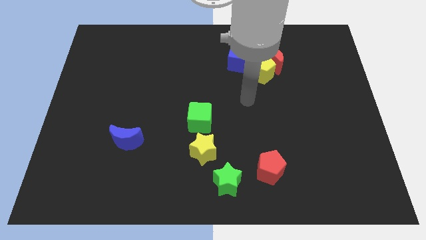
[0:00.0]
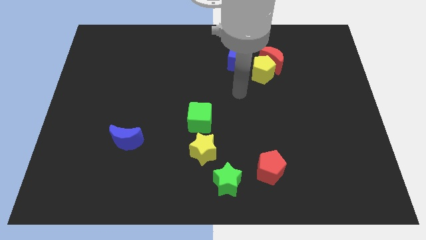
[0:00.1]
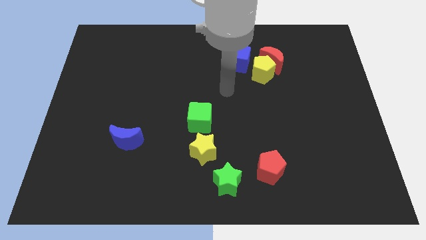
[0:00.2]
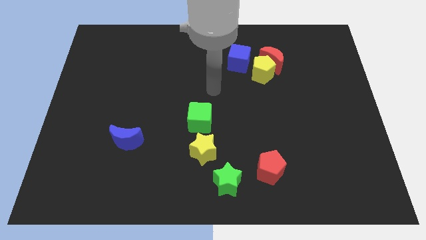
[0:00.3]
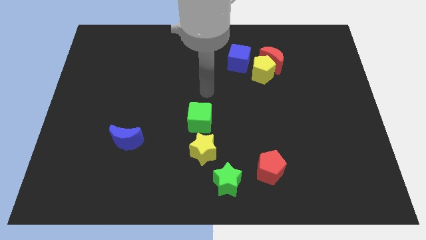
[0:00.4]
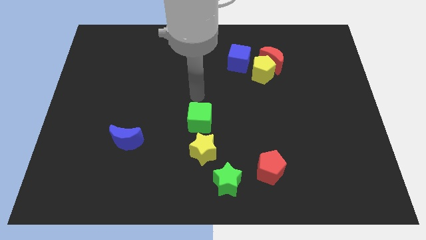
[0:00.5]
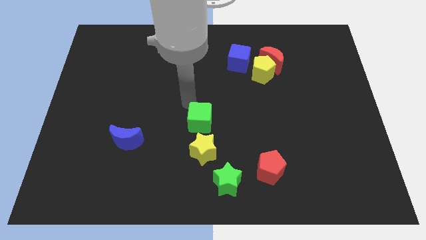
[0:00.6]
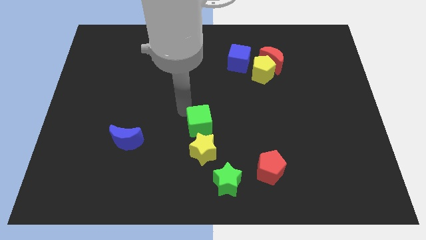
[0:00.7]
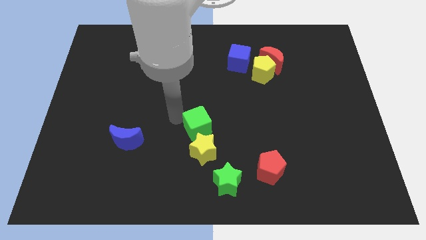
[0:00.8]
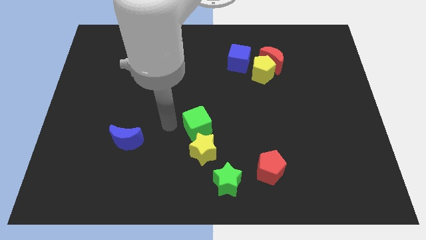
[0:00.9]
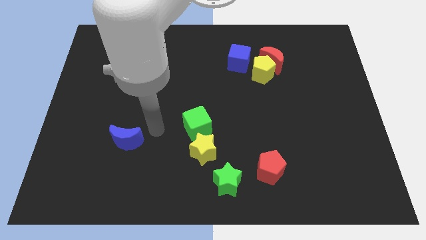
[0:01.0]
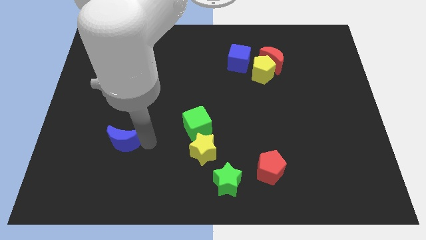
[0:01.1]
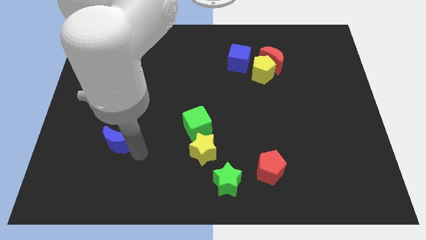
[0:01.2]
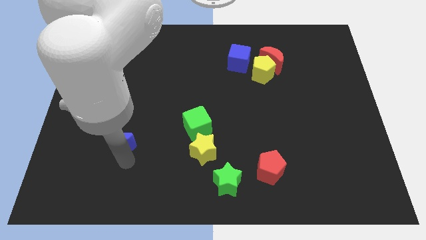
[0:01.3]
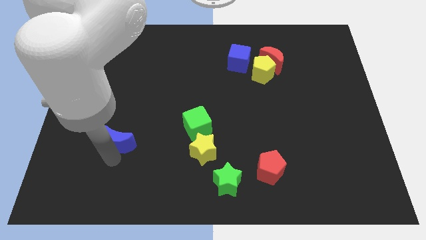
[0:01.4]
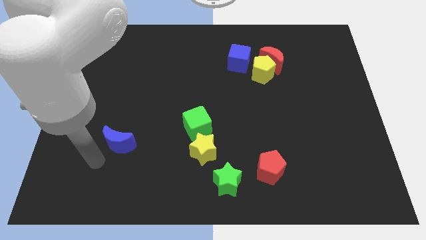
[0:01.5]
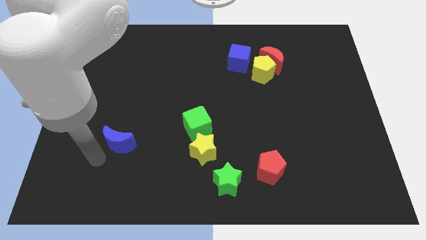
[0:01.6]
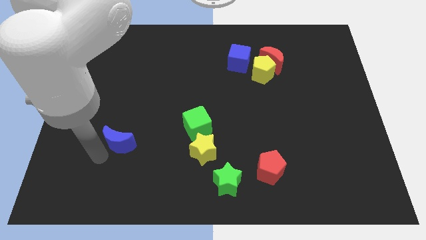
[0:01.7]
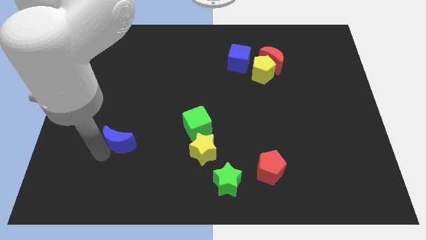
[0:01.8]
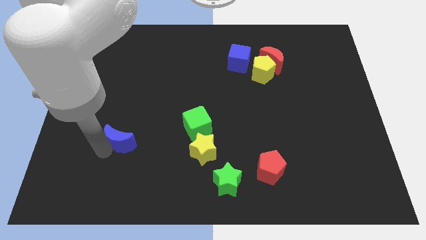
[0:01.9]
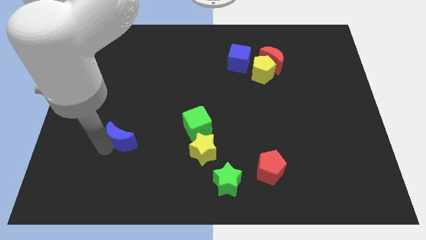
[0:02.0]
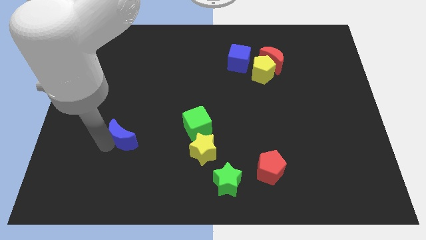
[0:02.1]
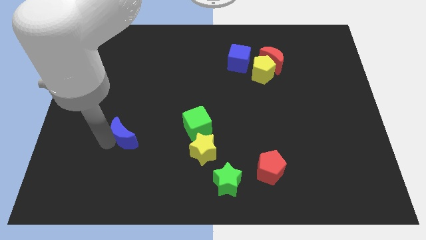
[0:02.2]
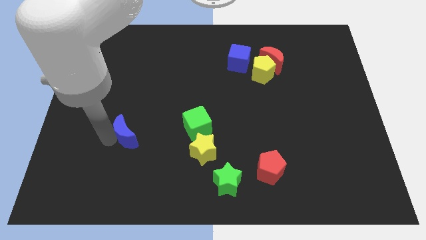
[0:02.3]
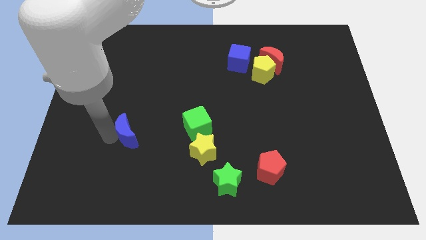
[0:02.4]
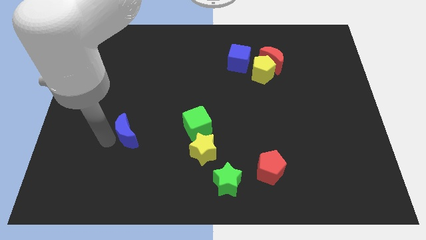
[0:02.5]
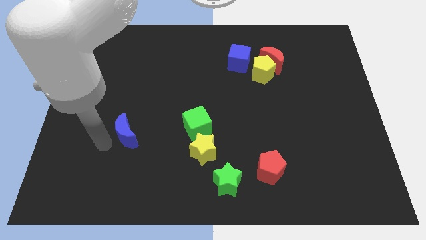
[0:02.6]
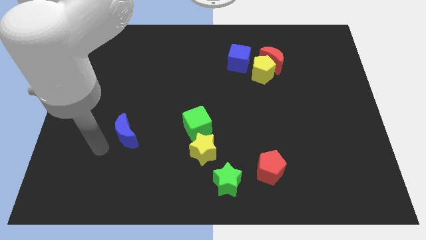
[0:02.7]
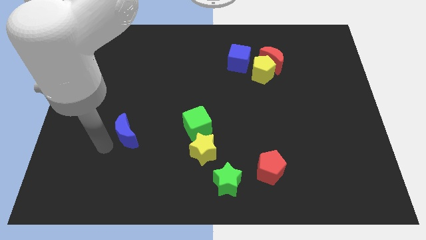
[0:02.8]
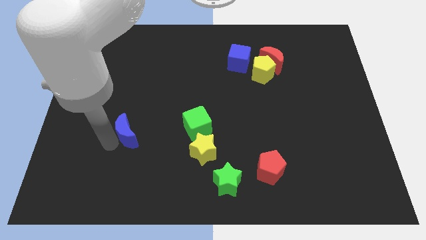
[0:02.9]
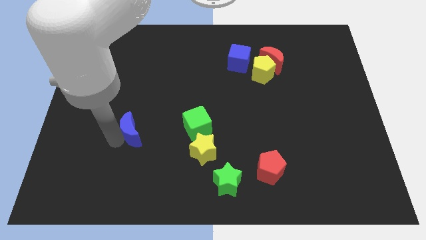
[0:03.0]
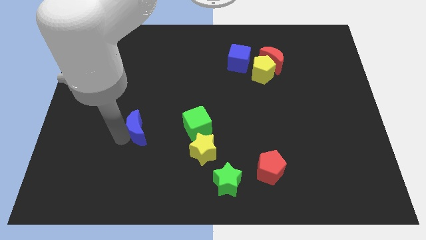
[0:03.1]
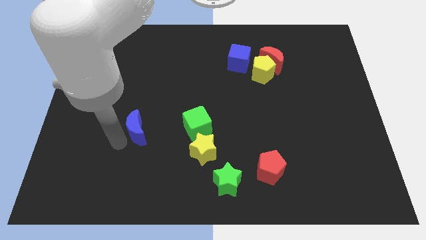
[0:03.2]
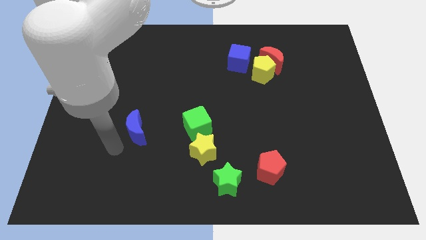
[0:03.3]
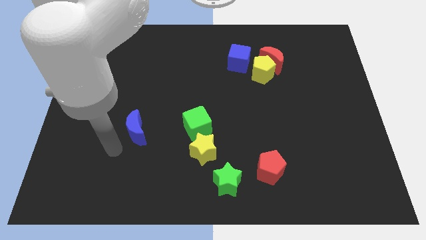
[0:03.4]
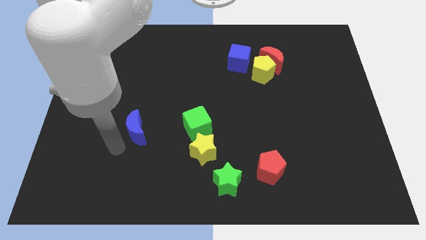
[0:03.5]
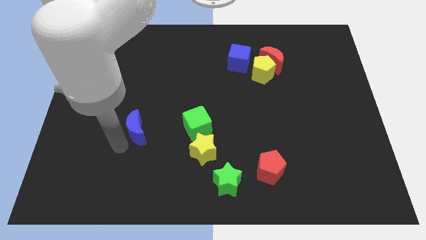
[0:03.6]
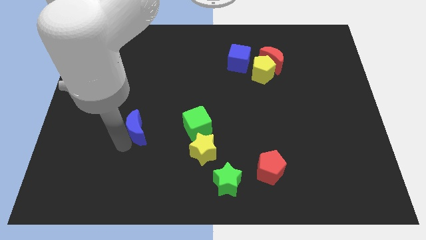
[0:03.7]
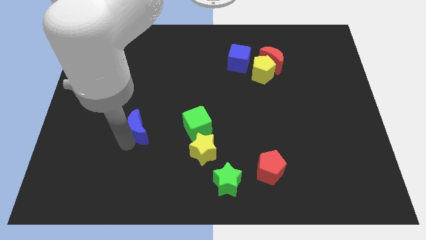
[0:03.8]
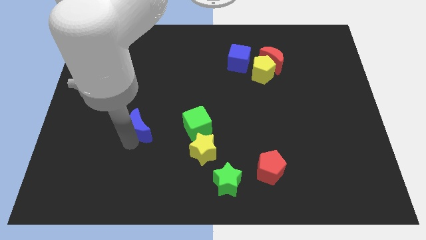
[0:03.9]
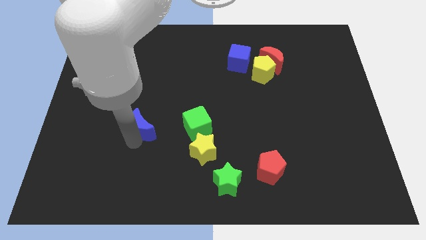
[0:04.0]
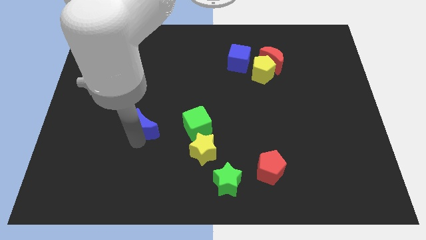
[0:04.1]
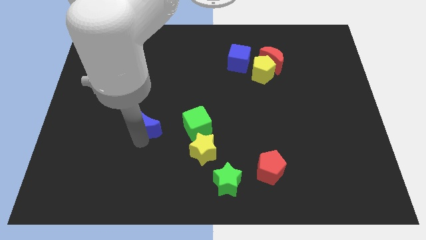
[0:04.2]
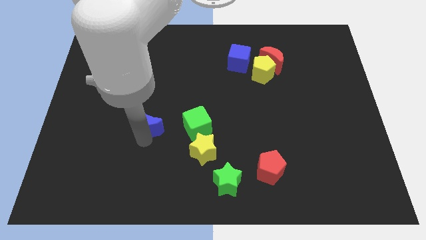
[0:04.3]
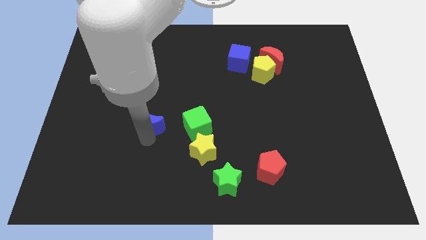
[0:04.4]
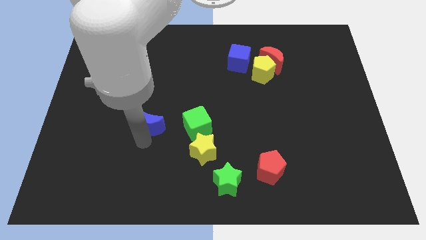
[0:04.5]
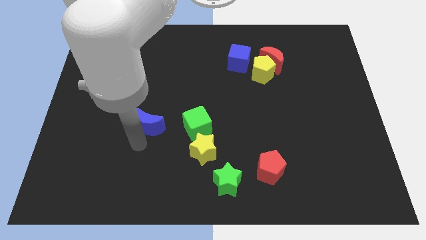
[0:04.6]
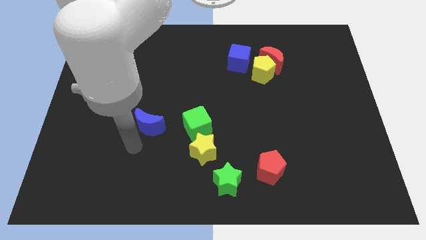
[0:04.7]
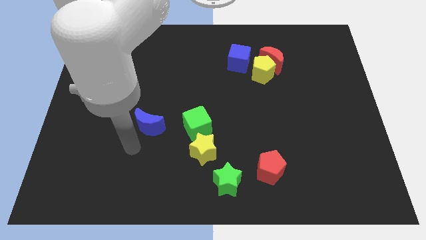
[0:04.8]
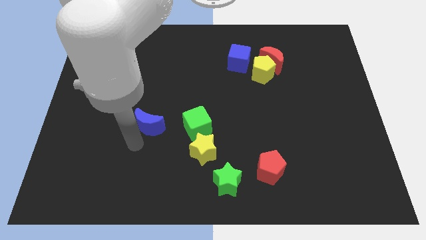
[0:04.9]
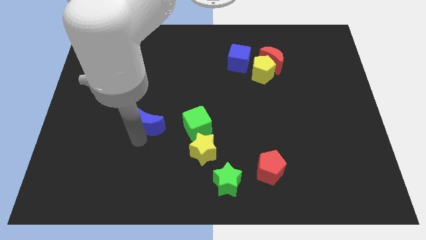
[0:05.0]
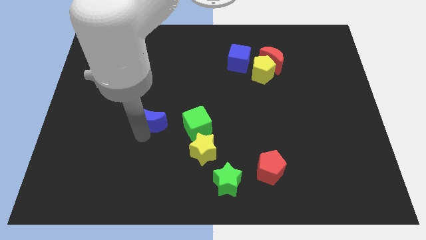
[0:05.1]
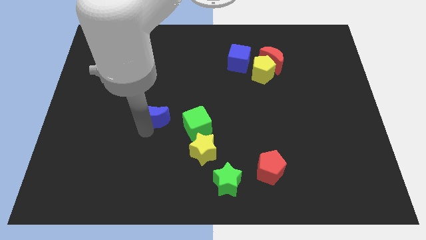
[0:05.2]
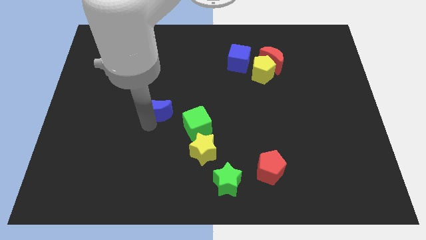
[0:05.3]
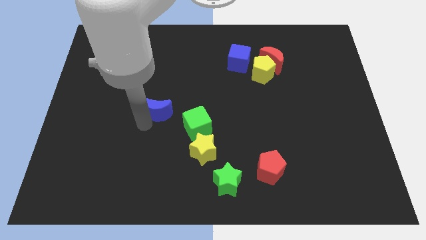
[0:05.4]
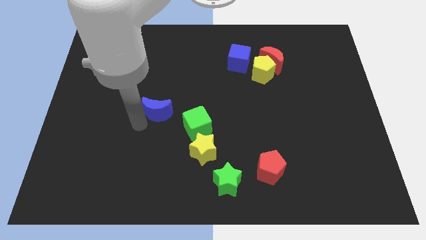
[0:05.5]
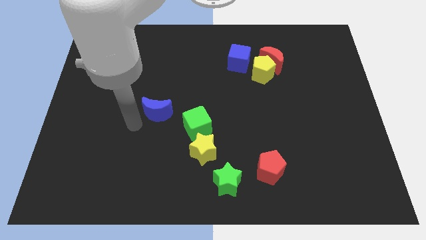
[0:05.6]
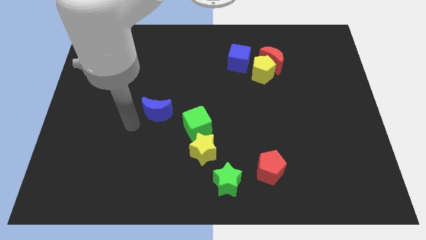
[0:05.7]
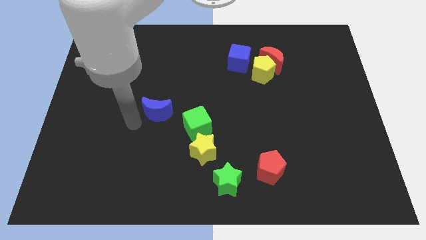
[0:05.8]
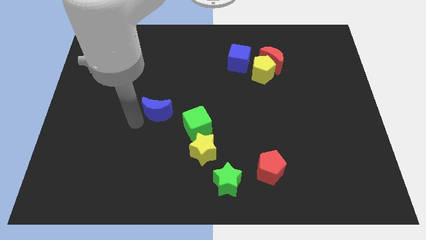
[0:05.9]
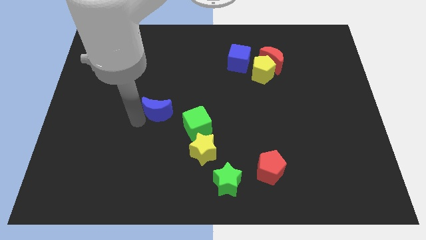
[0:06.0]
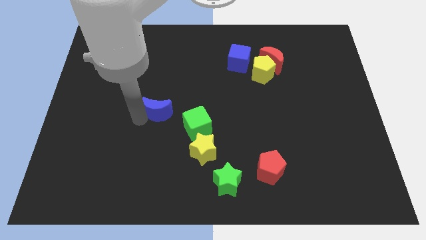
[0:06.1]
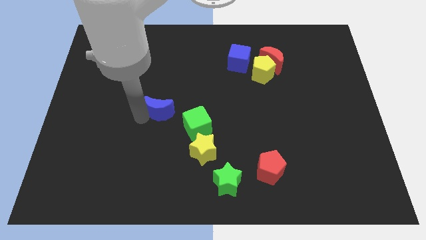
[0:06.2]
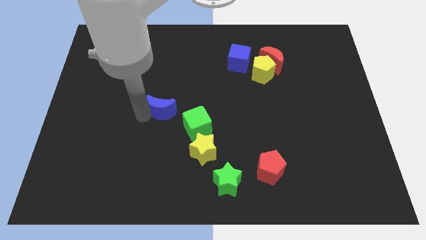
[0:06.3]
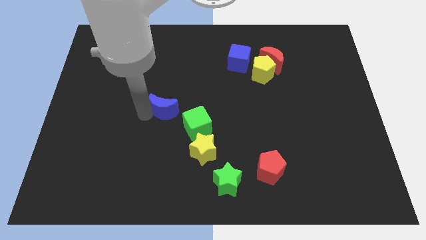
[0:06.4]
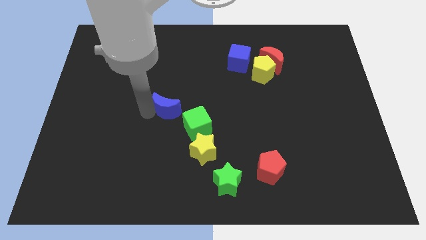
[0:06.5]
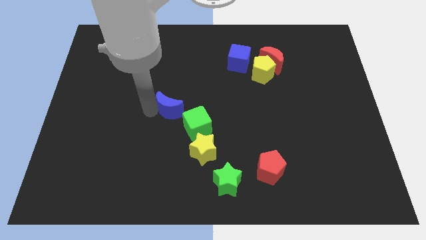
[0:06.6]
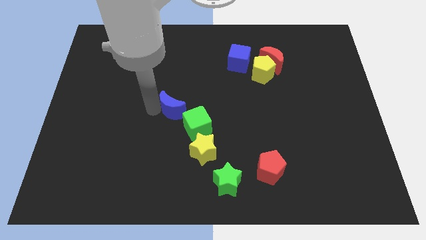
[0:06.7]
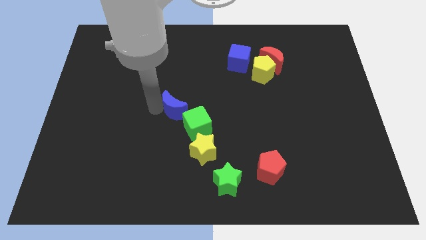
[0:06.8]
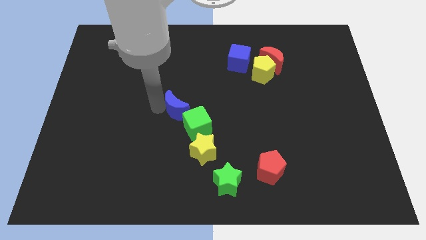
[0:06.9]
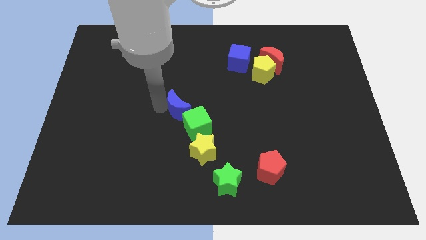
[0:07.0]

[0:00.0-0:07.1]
put the blue moon to the top of the green cube

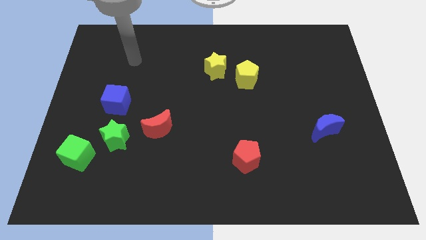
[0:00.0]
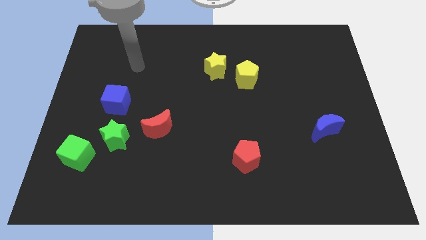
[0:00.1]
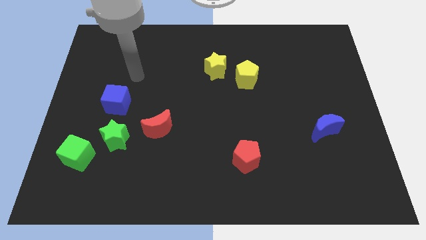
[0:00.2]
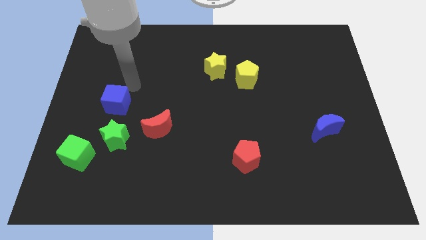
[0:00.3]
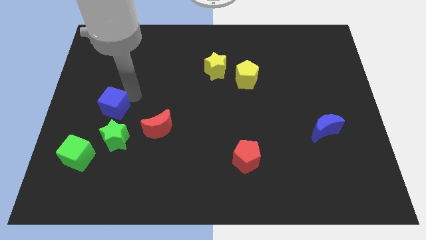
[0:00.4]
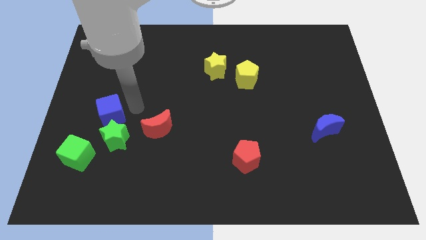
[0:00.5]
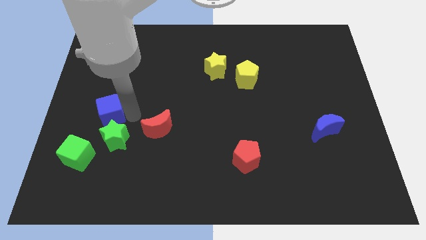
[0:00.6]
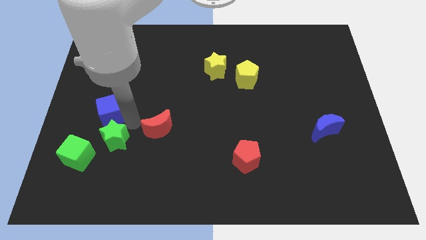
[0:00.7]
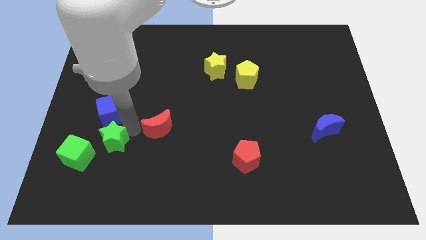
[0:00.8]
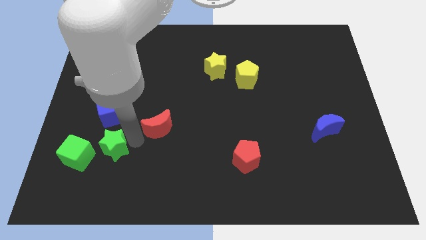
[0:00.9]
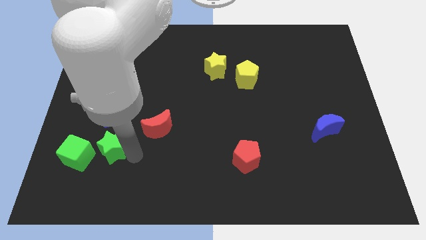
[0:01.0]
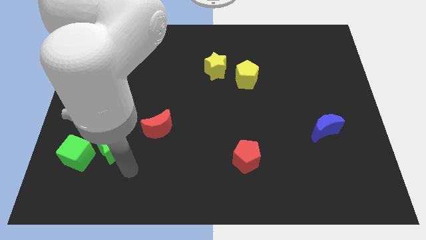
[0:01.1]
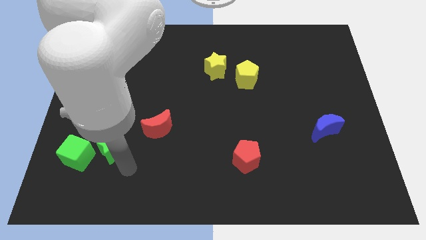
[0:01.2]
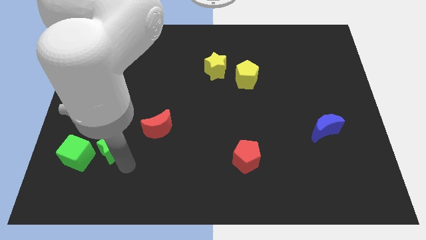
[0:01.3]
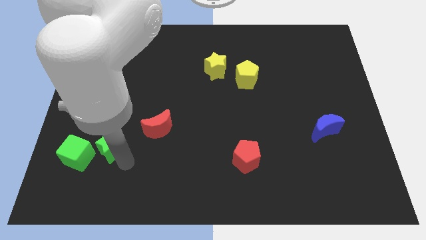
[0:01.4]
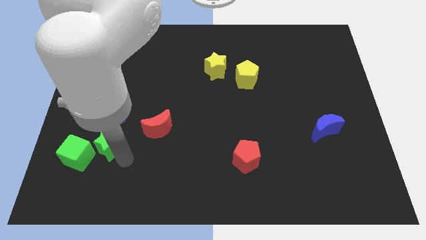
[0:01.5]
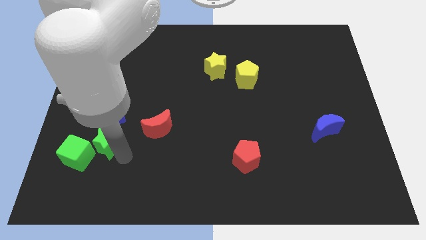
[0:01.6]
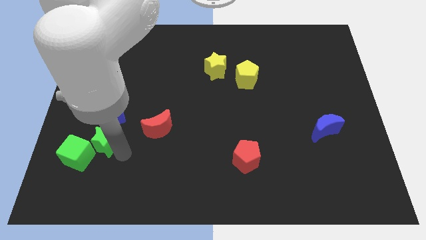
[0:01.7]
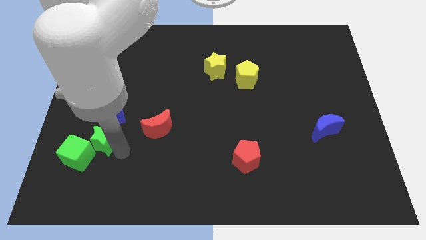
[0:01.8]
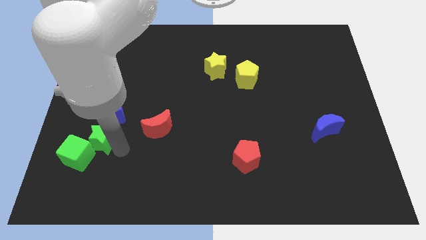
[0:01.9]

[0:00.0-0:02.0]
push the green star to the top of the green cube
